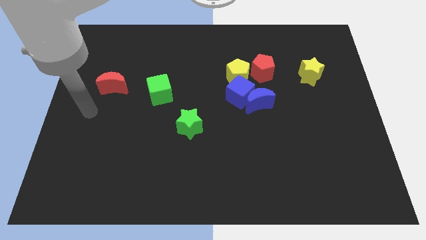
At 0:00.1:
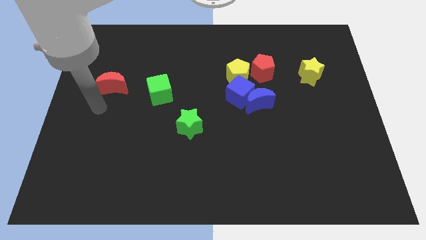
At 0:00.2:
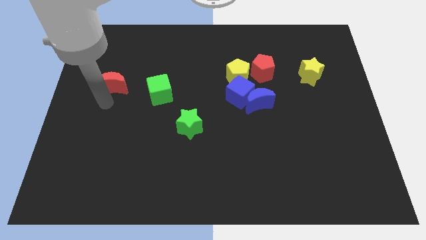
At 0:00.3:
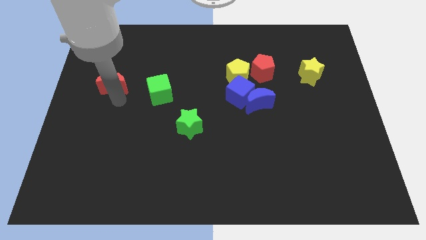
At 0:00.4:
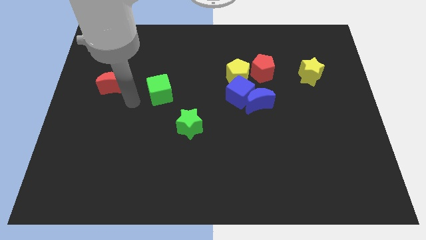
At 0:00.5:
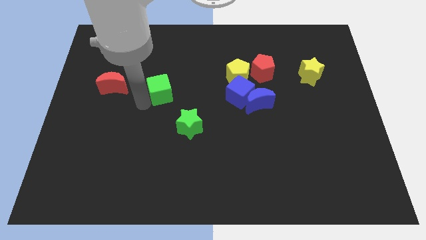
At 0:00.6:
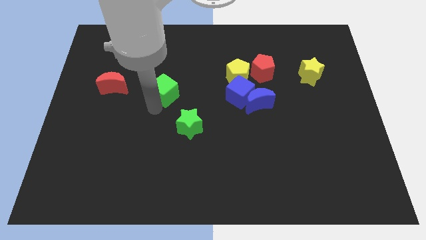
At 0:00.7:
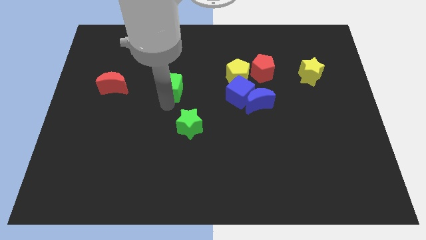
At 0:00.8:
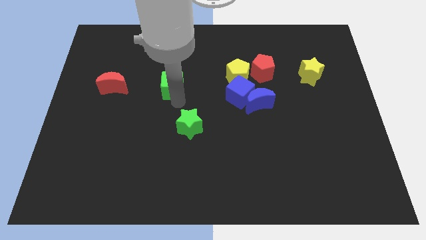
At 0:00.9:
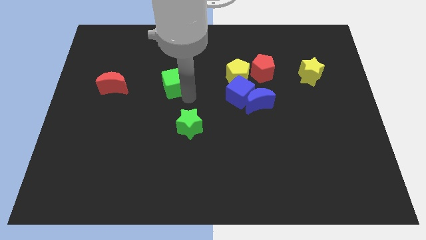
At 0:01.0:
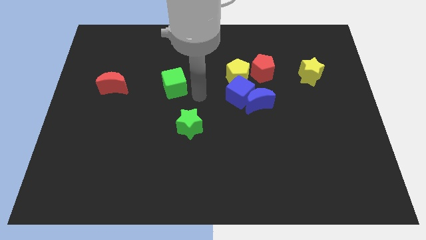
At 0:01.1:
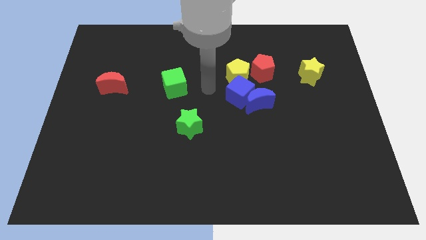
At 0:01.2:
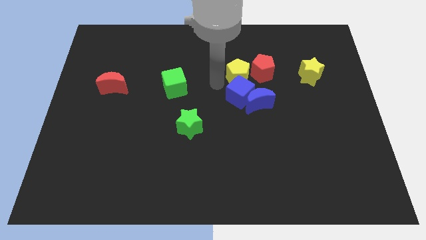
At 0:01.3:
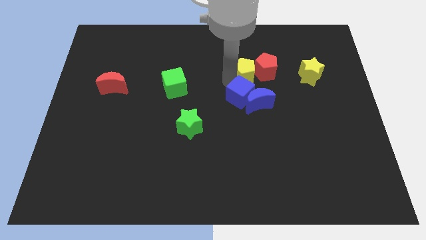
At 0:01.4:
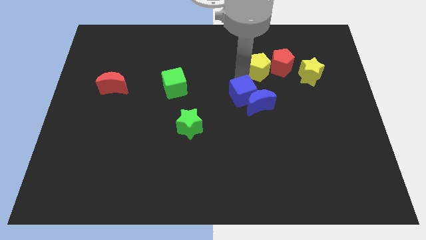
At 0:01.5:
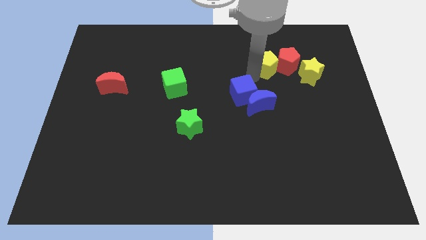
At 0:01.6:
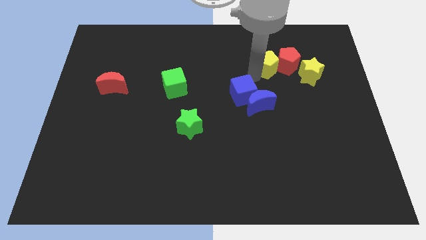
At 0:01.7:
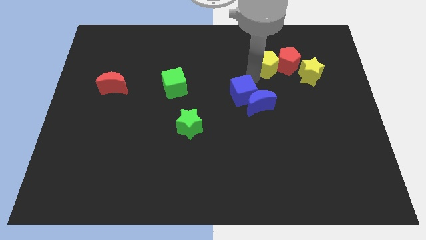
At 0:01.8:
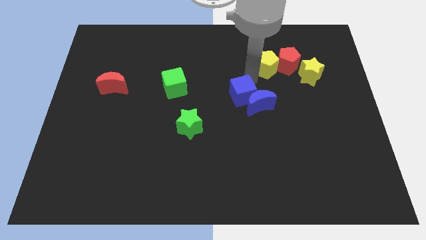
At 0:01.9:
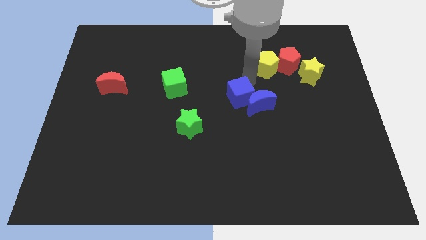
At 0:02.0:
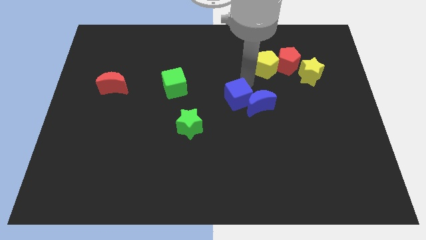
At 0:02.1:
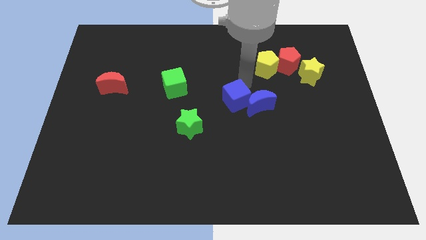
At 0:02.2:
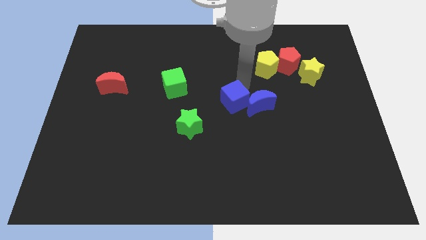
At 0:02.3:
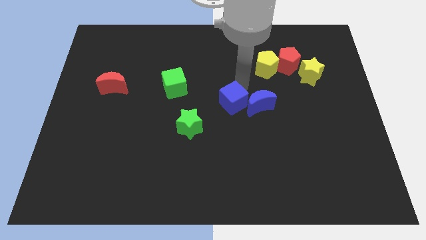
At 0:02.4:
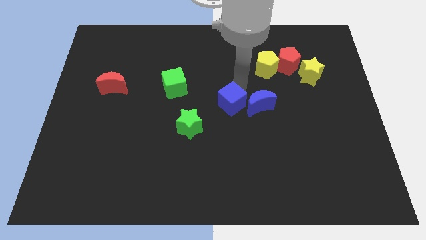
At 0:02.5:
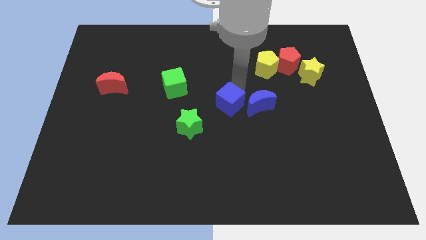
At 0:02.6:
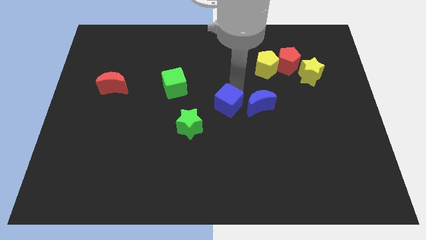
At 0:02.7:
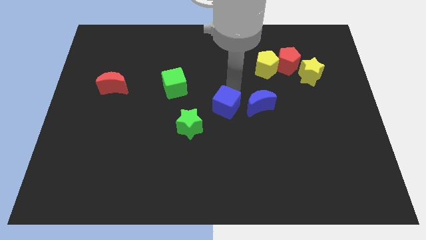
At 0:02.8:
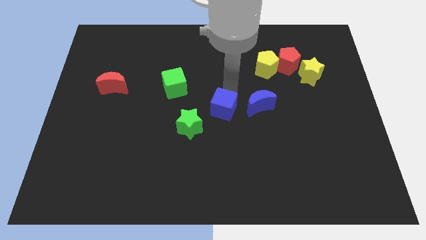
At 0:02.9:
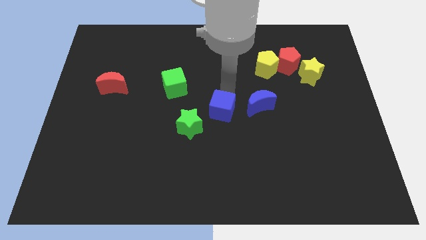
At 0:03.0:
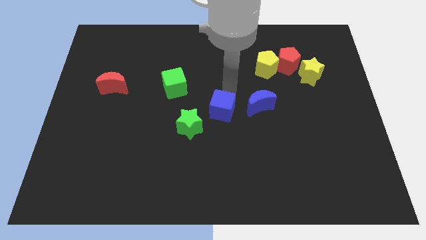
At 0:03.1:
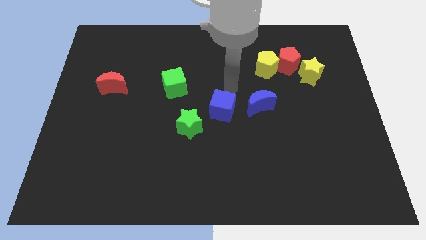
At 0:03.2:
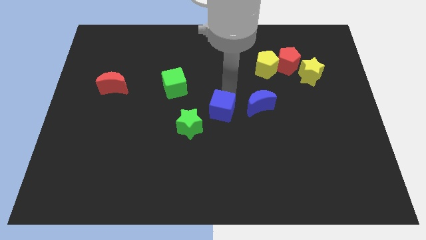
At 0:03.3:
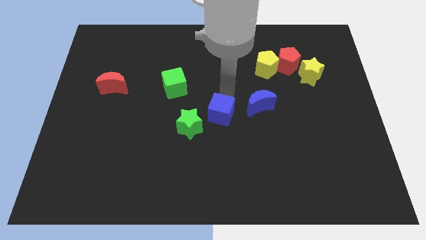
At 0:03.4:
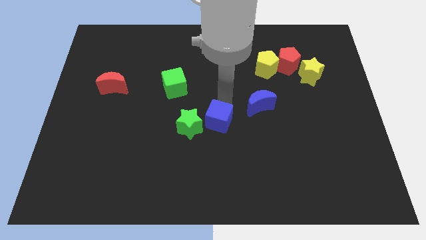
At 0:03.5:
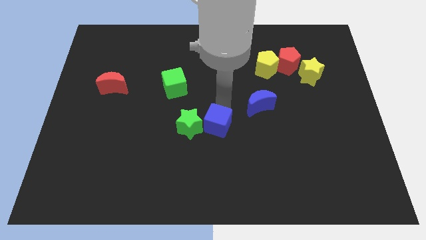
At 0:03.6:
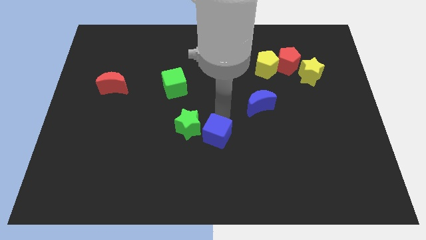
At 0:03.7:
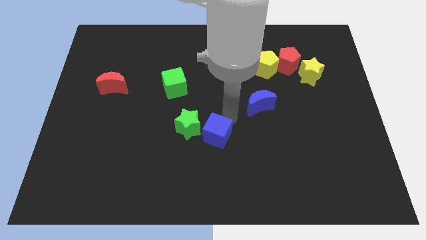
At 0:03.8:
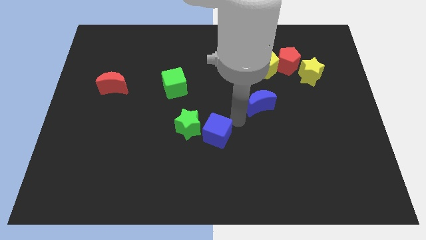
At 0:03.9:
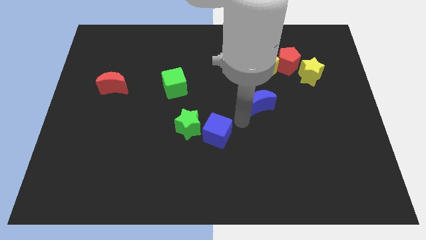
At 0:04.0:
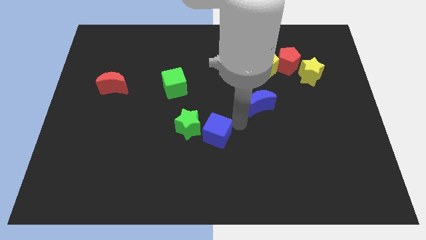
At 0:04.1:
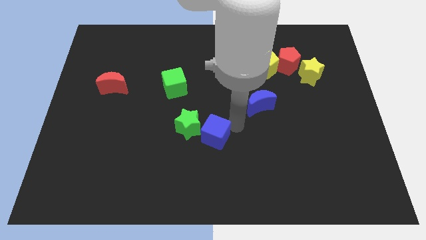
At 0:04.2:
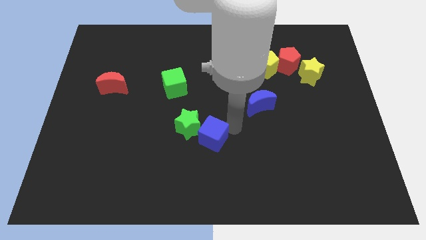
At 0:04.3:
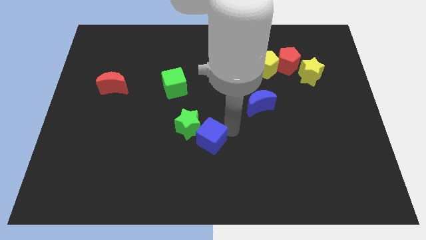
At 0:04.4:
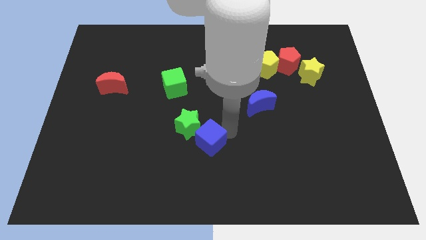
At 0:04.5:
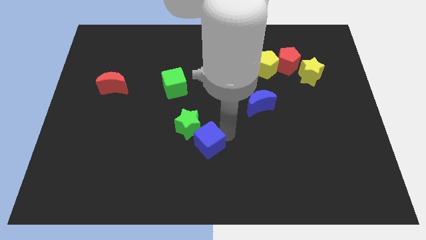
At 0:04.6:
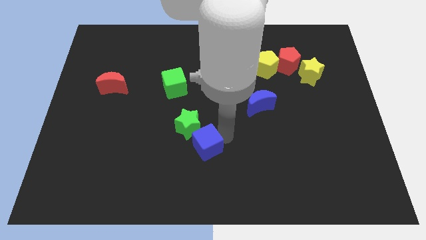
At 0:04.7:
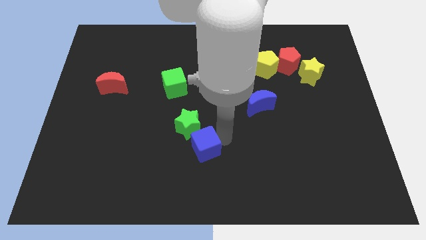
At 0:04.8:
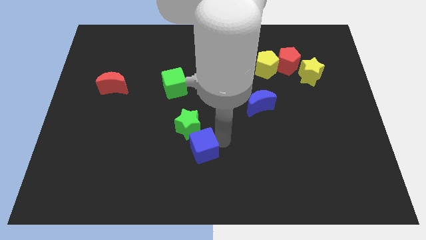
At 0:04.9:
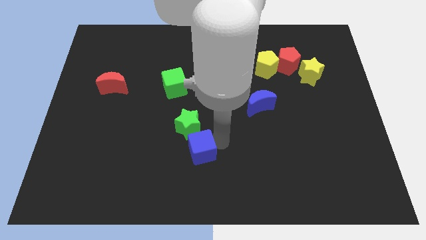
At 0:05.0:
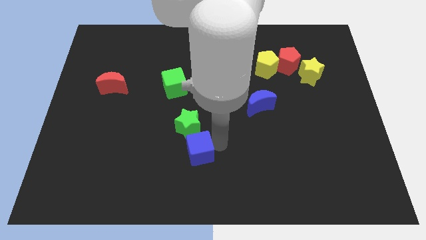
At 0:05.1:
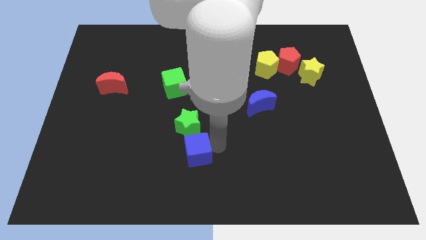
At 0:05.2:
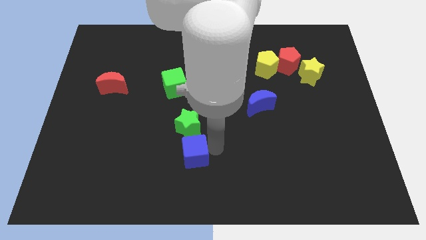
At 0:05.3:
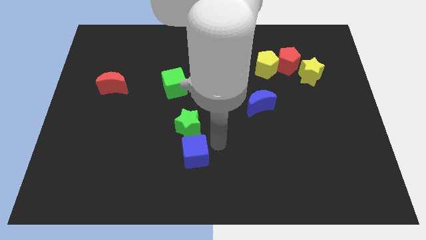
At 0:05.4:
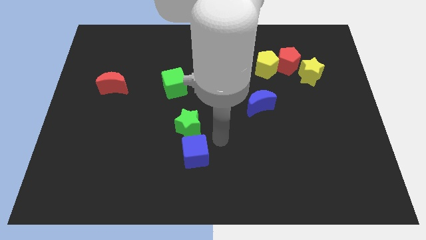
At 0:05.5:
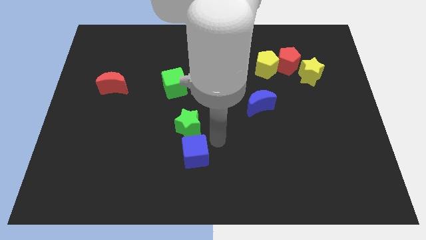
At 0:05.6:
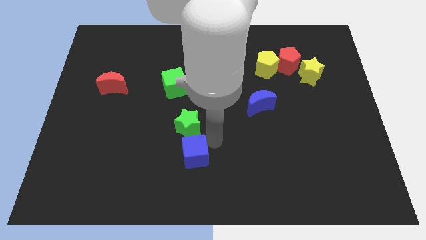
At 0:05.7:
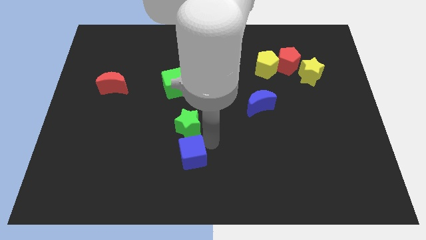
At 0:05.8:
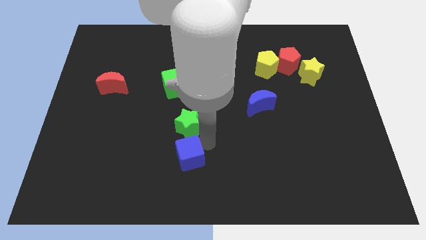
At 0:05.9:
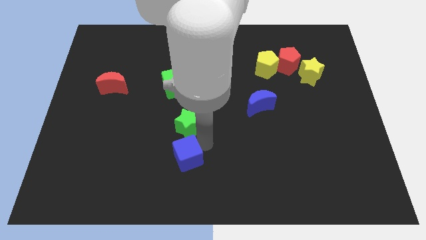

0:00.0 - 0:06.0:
slide the blue cube downwards and to the left diagonally

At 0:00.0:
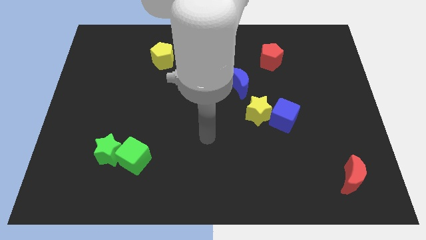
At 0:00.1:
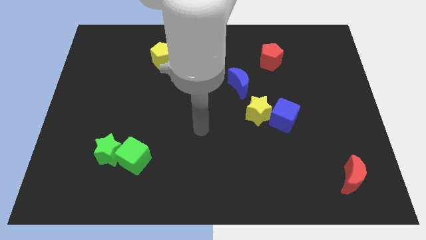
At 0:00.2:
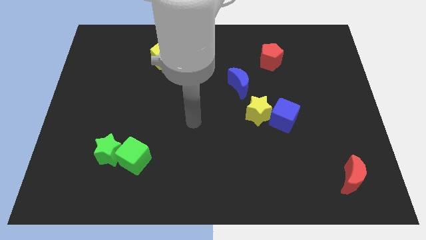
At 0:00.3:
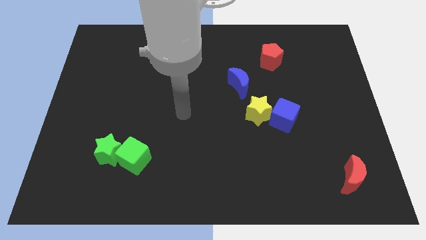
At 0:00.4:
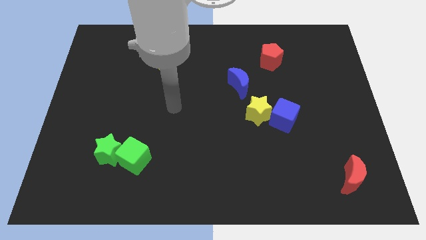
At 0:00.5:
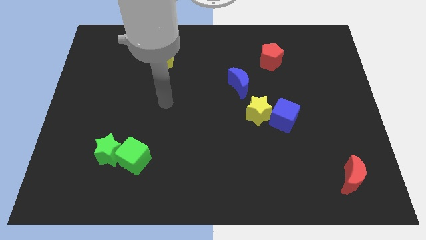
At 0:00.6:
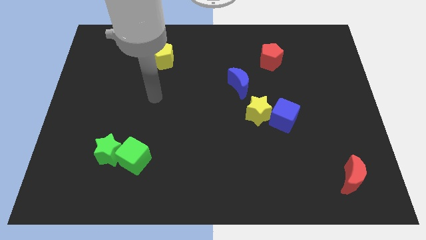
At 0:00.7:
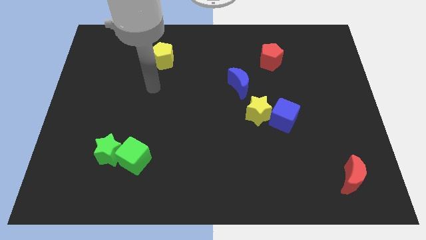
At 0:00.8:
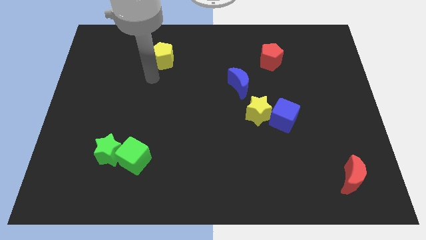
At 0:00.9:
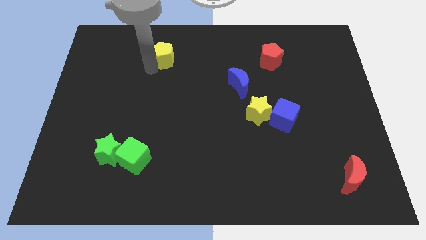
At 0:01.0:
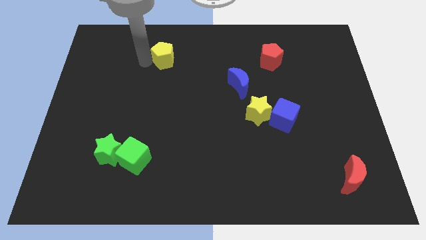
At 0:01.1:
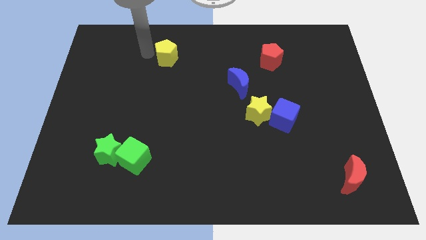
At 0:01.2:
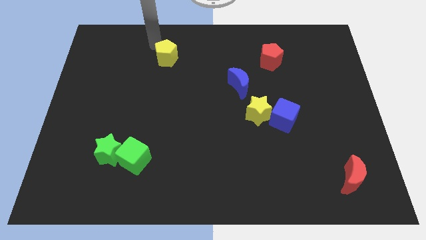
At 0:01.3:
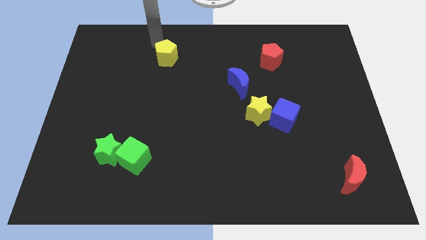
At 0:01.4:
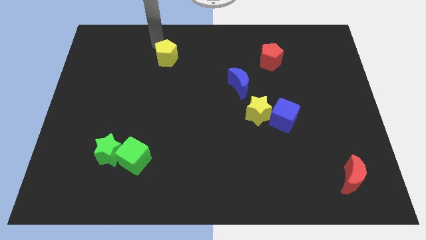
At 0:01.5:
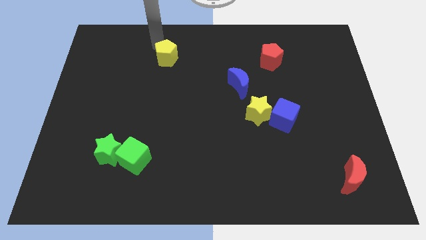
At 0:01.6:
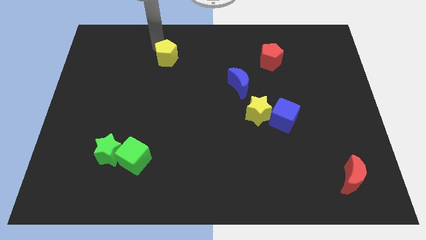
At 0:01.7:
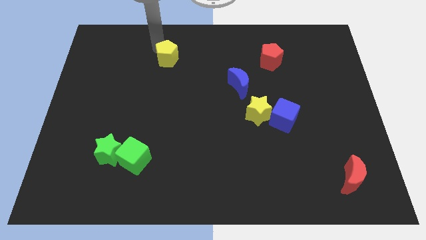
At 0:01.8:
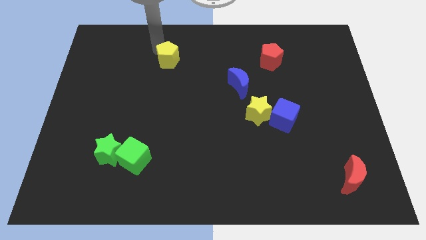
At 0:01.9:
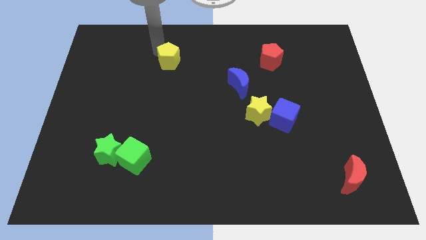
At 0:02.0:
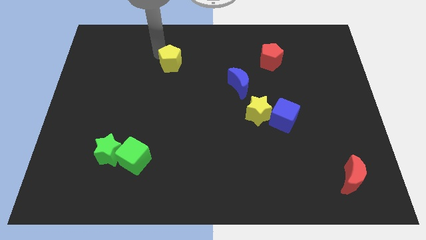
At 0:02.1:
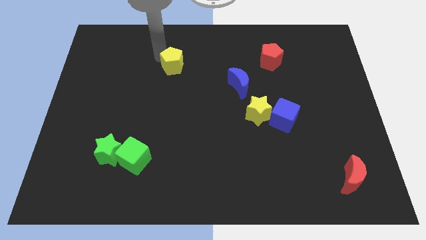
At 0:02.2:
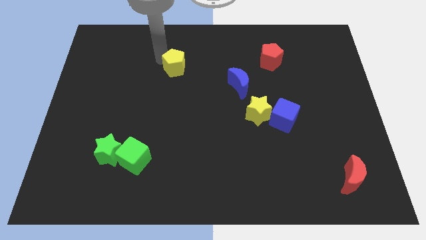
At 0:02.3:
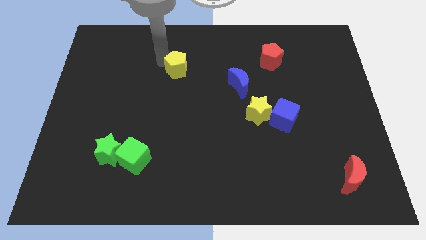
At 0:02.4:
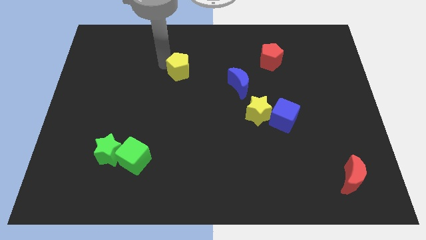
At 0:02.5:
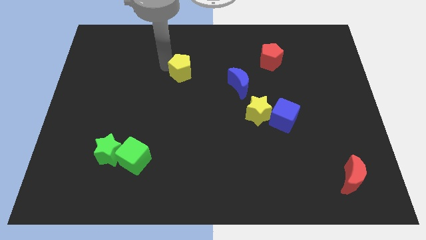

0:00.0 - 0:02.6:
slide the yellow pentagon diagonally downwards and right a bit
